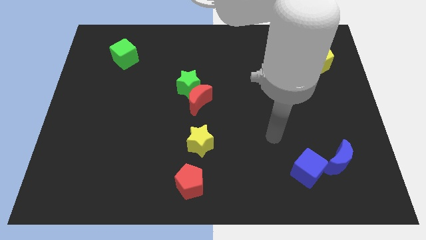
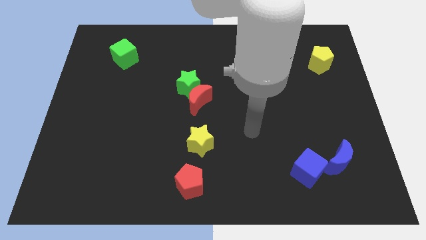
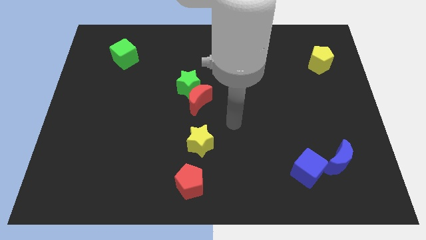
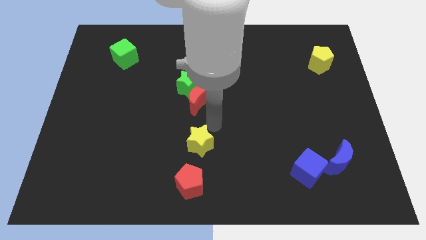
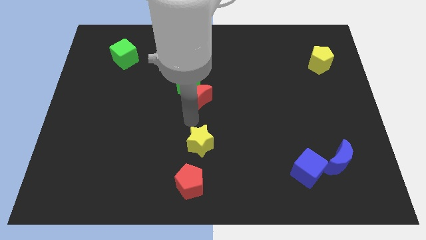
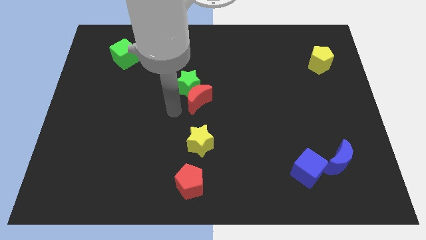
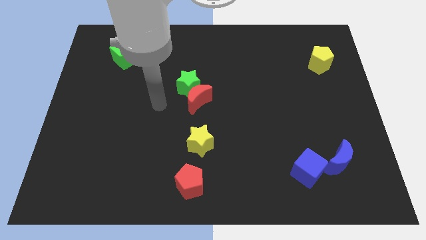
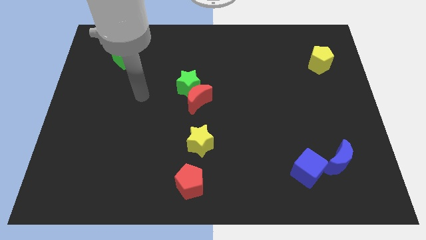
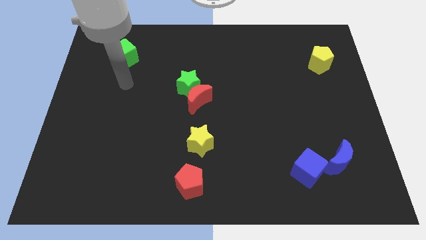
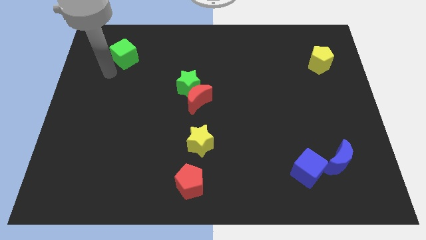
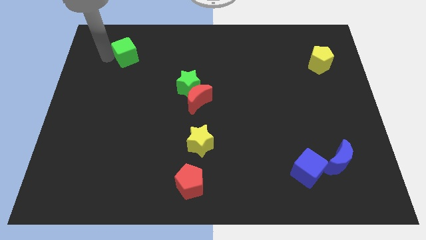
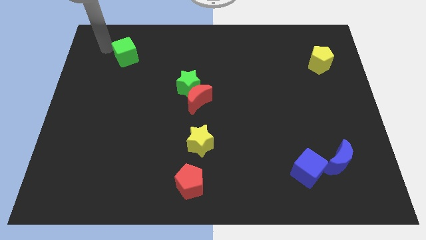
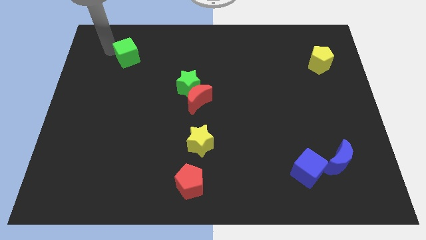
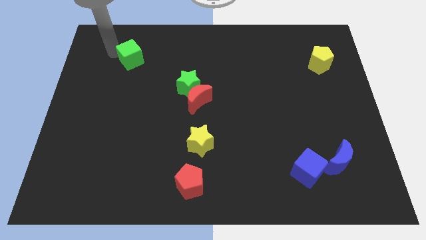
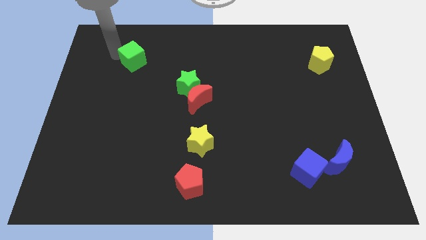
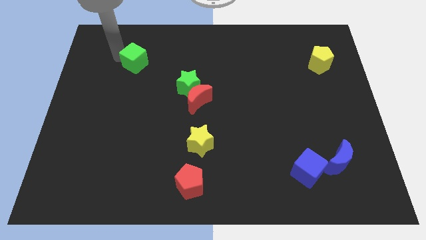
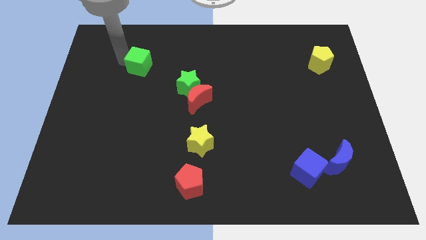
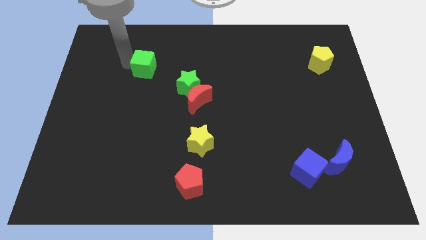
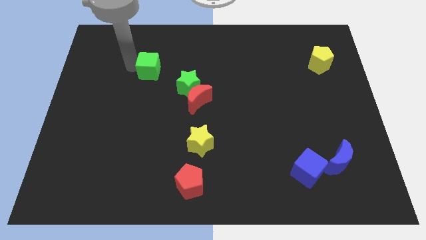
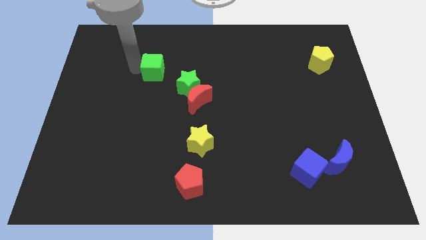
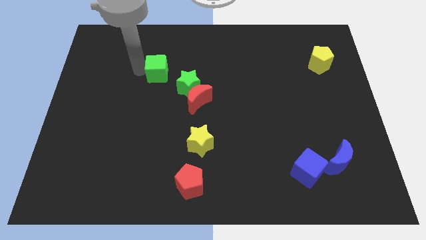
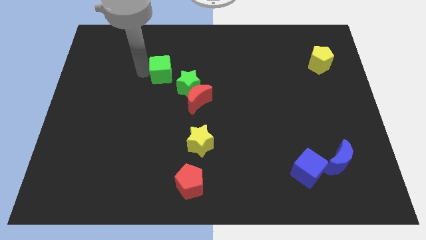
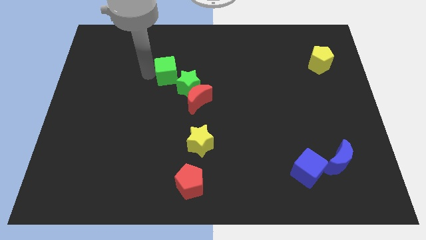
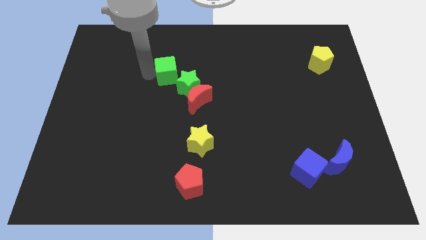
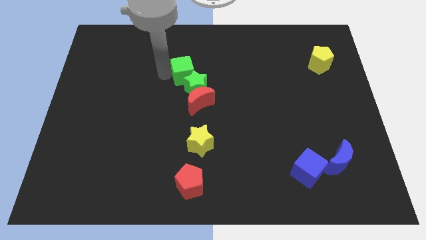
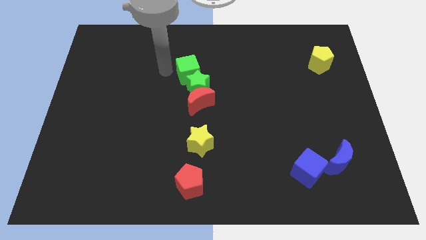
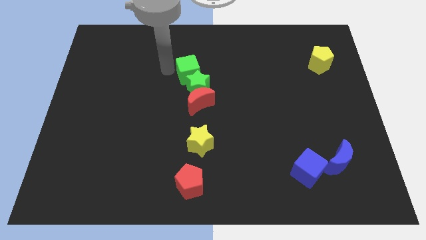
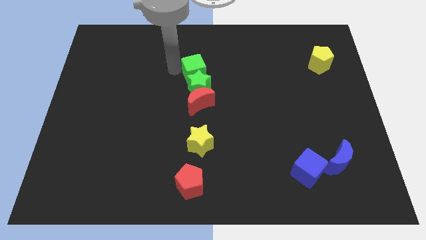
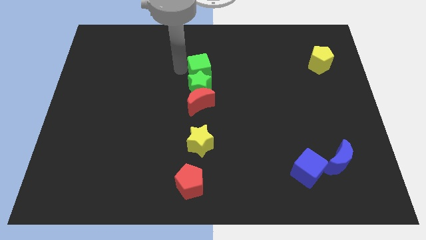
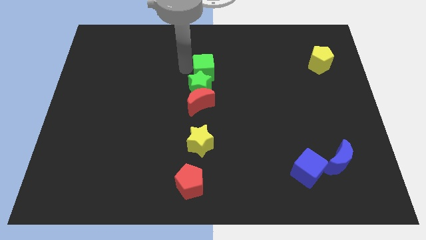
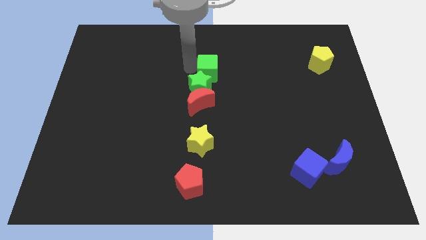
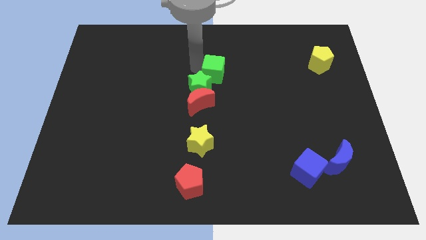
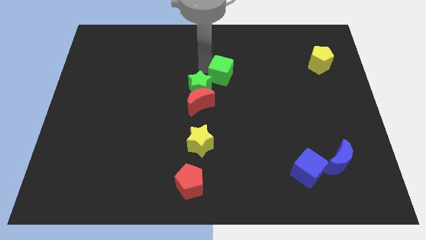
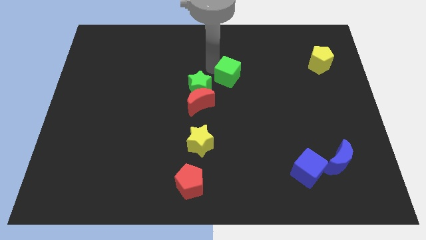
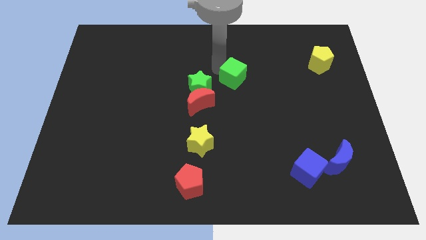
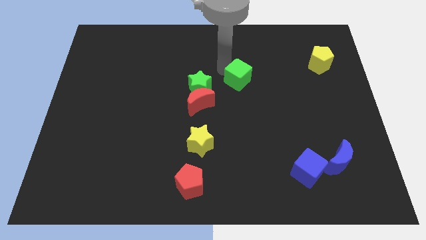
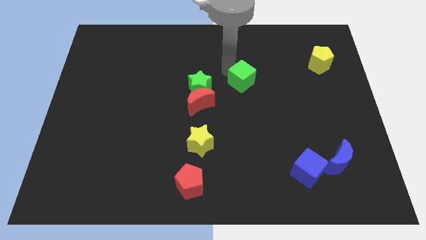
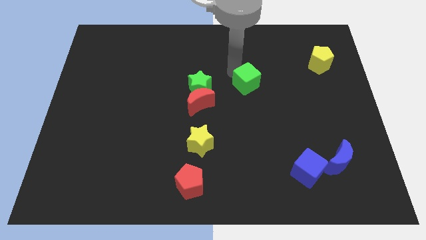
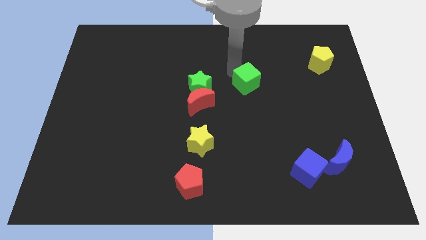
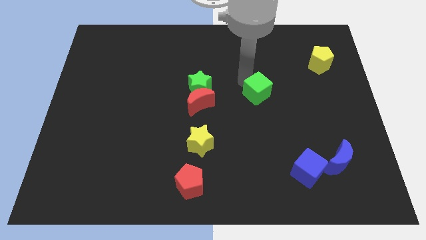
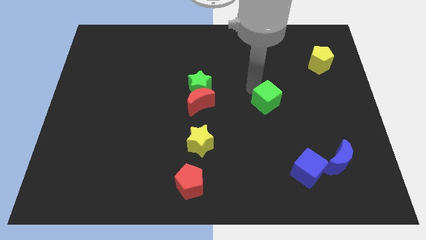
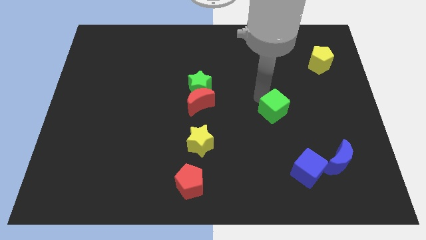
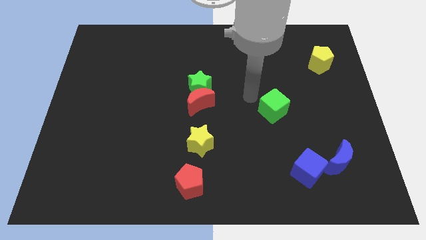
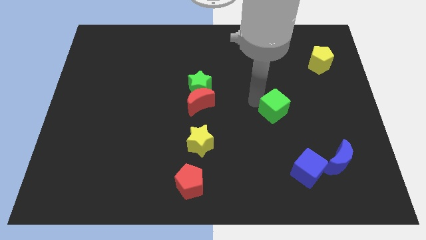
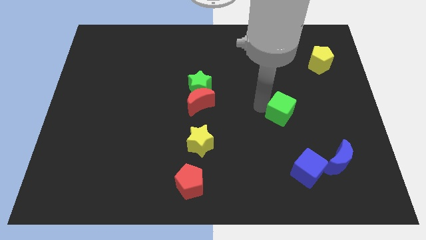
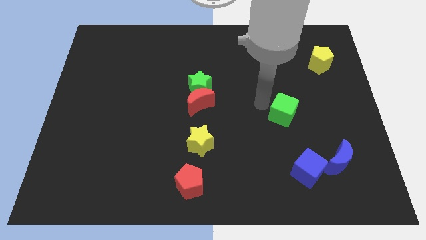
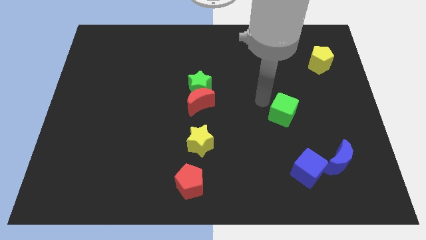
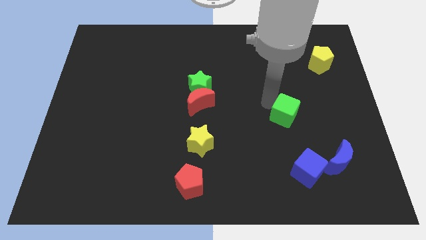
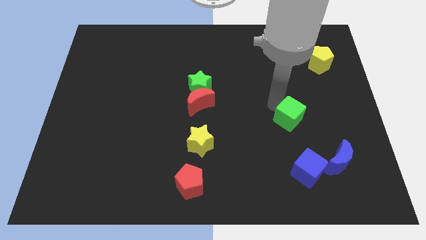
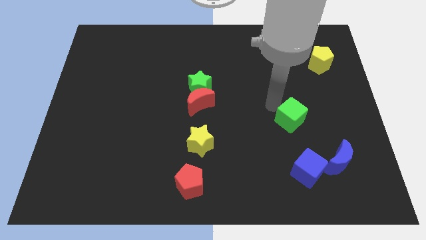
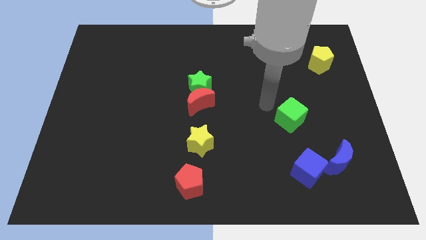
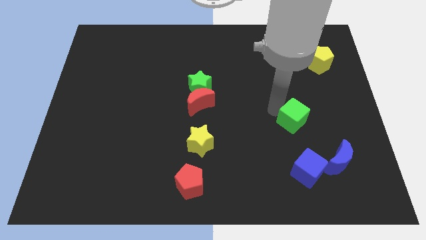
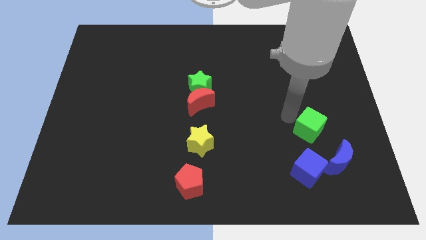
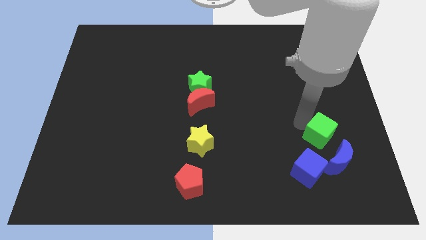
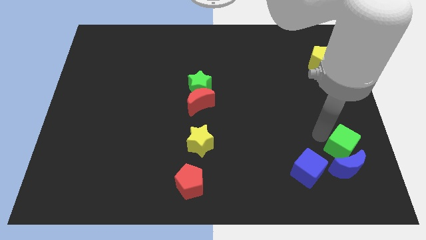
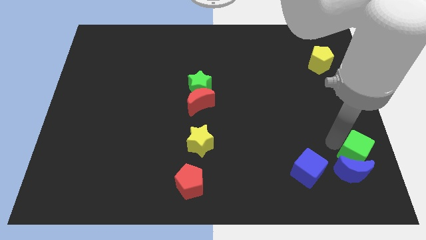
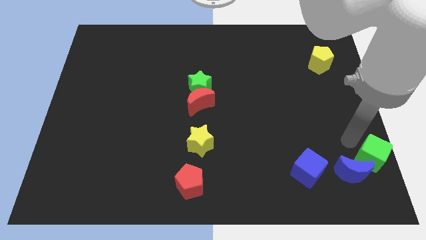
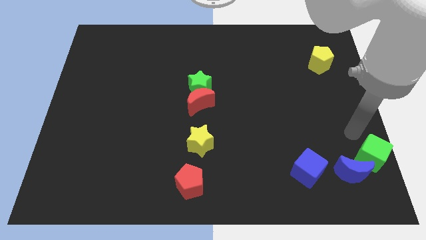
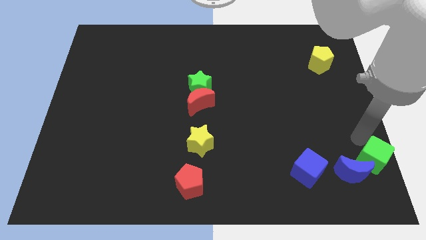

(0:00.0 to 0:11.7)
move the green cube to the lower right corner

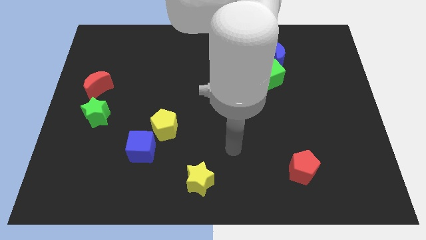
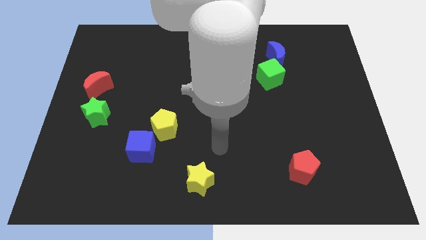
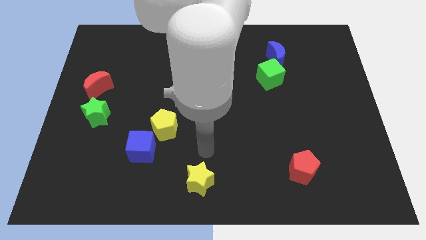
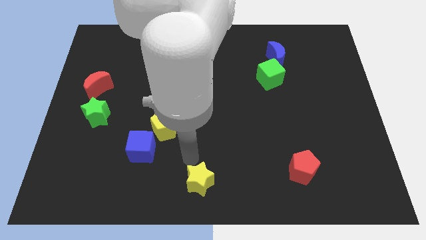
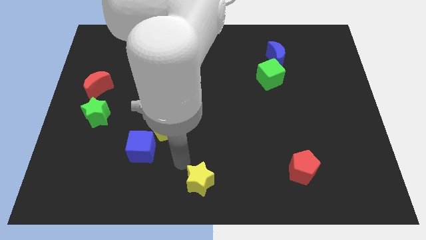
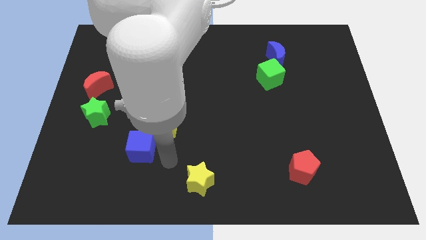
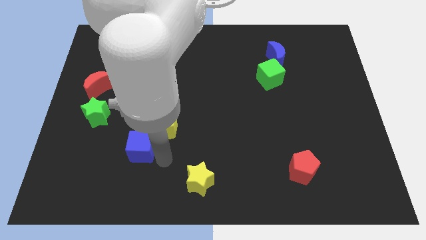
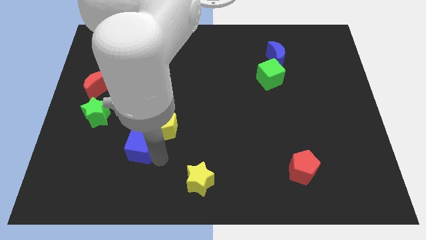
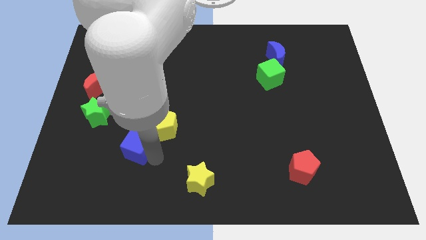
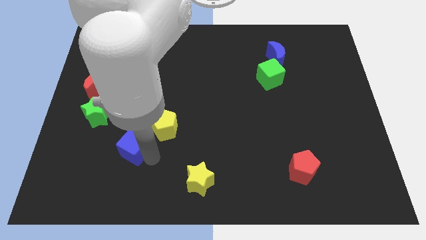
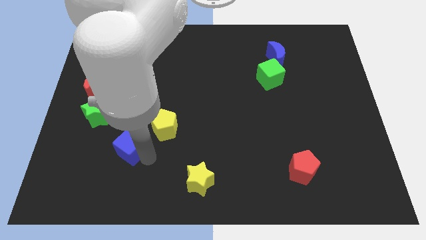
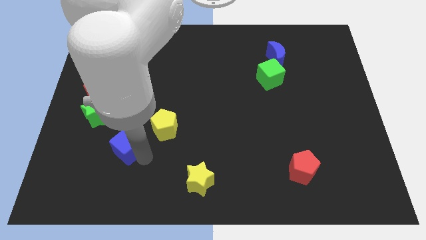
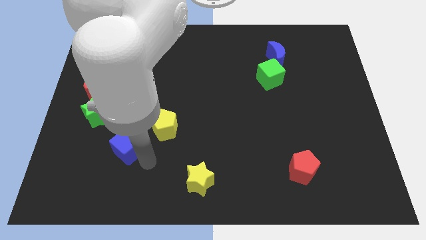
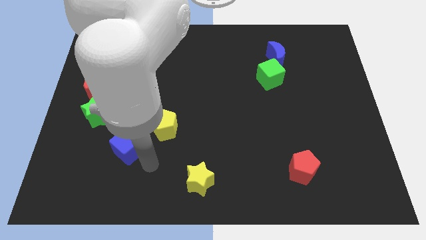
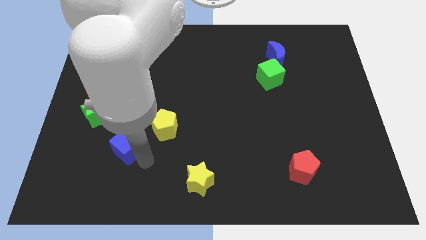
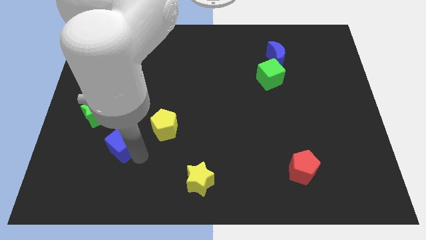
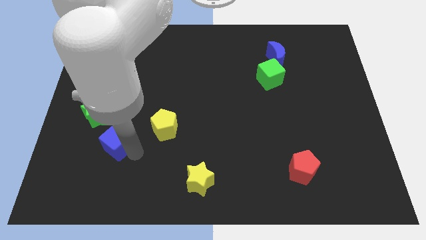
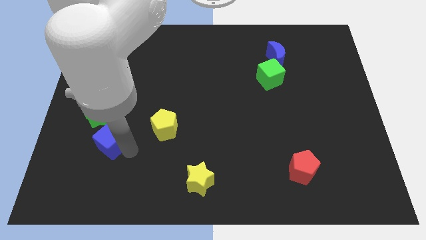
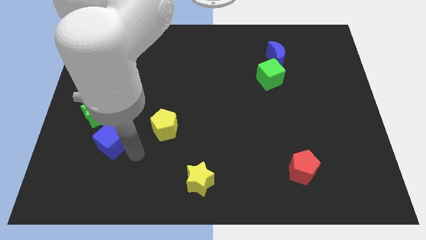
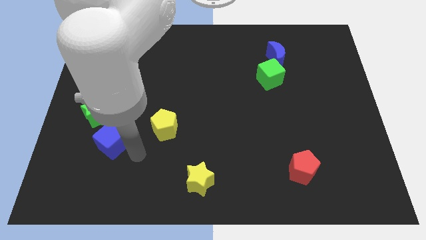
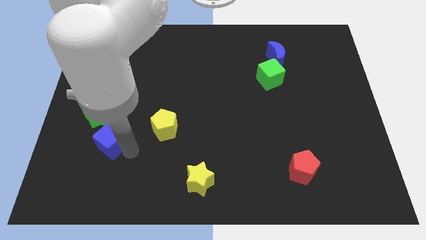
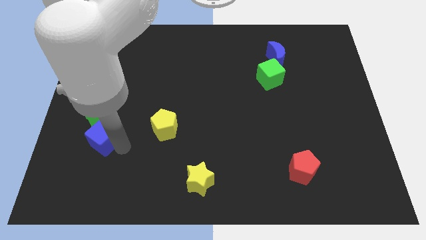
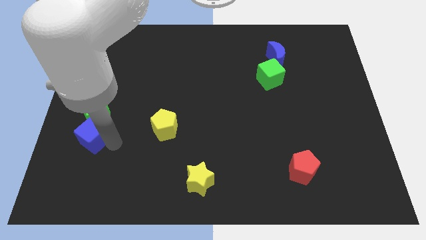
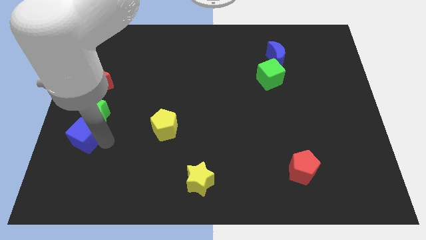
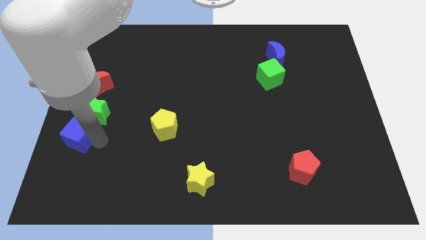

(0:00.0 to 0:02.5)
push the blue cube to the left side of the board
